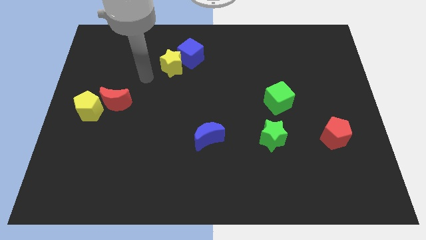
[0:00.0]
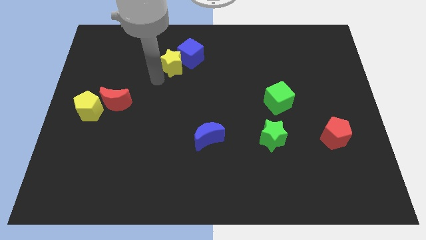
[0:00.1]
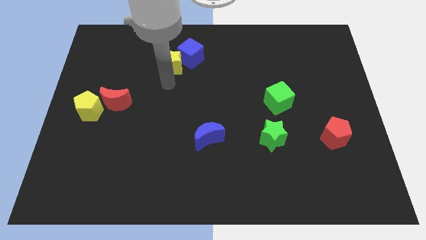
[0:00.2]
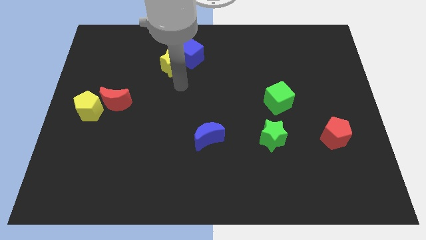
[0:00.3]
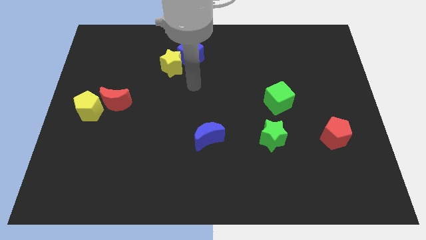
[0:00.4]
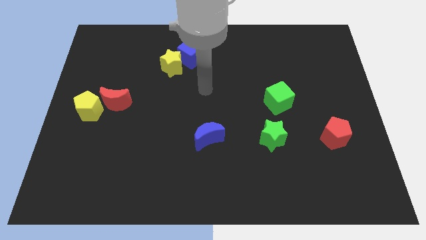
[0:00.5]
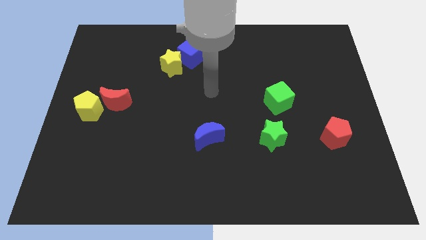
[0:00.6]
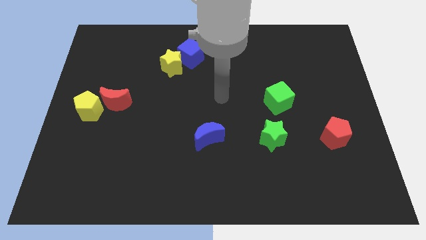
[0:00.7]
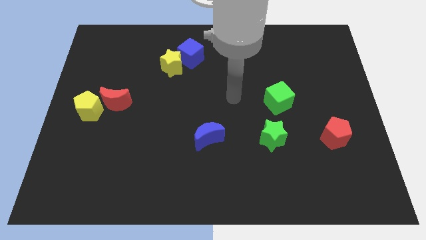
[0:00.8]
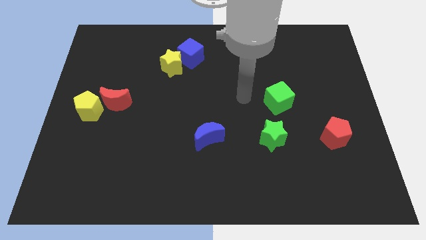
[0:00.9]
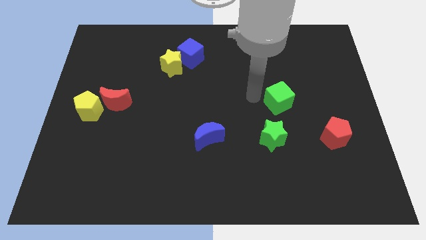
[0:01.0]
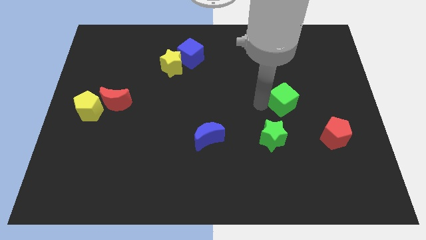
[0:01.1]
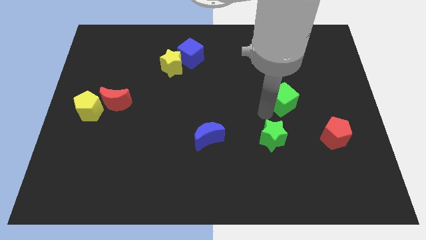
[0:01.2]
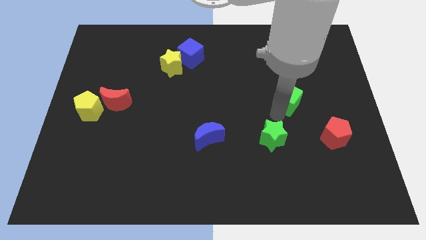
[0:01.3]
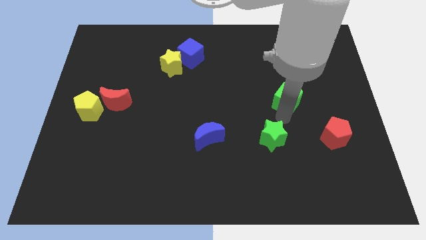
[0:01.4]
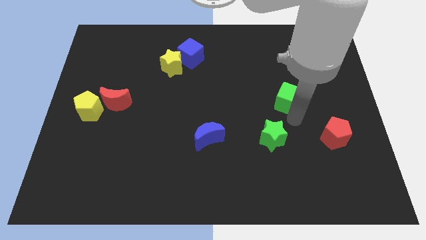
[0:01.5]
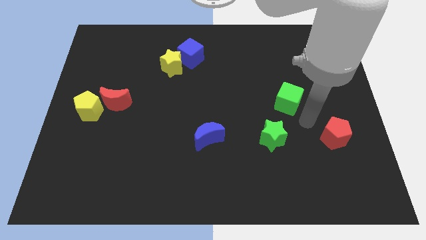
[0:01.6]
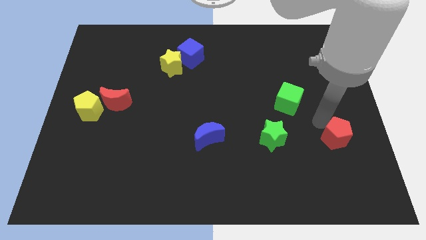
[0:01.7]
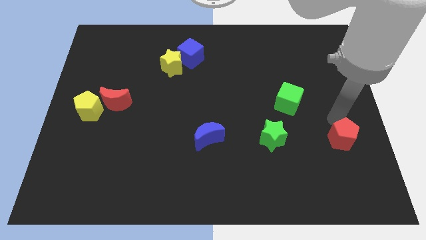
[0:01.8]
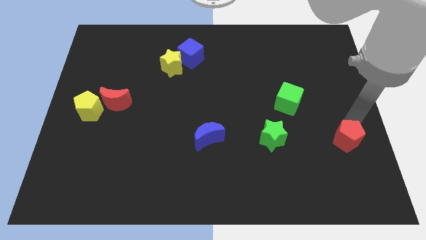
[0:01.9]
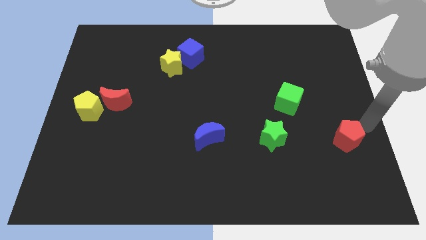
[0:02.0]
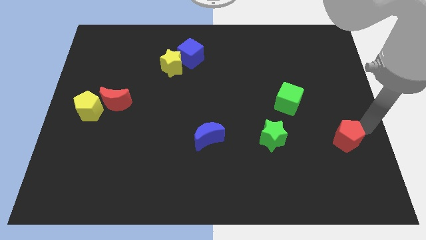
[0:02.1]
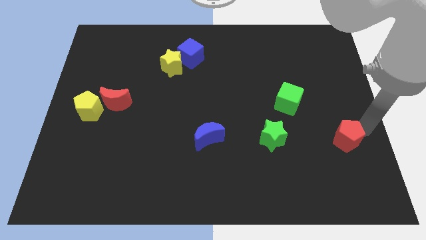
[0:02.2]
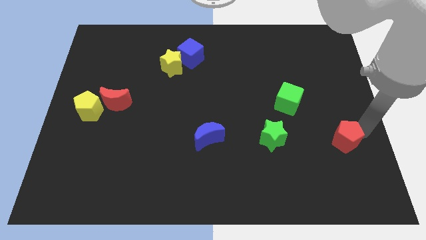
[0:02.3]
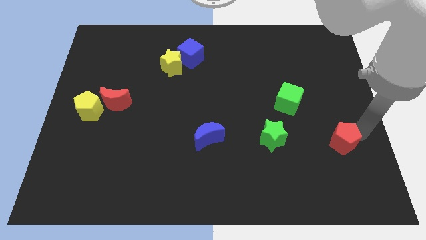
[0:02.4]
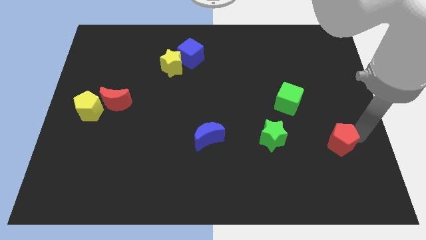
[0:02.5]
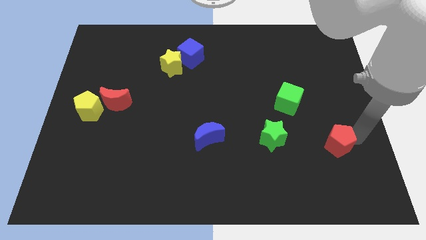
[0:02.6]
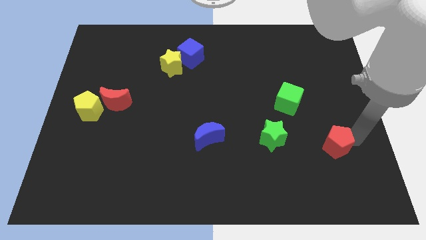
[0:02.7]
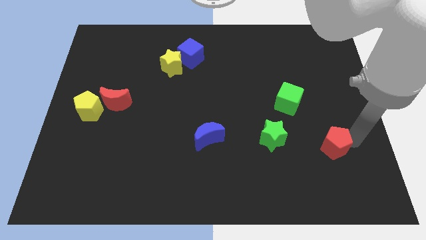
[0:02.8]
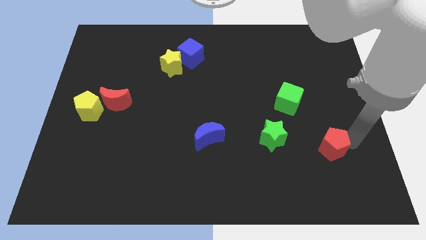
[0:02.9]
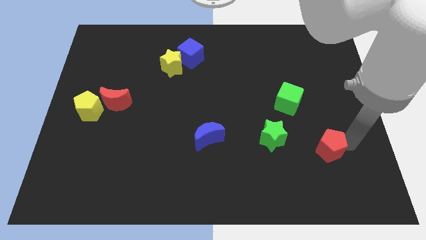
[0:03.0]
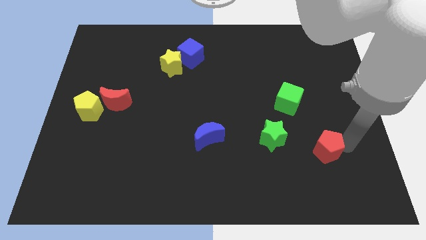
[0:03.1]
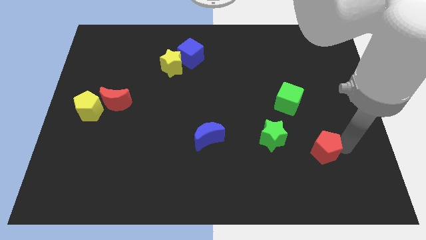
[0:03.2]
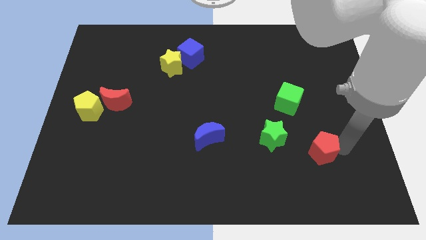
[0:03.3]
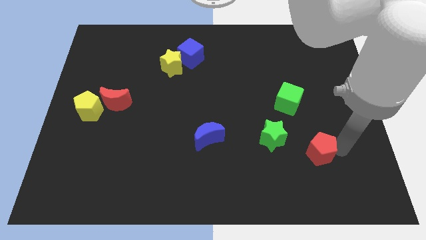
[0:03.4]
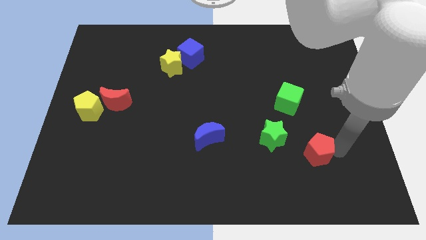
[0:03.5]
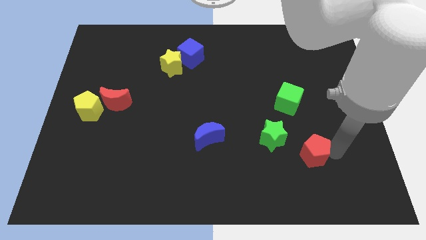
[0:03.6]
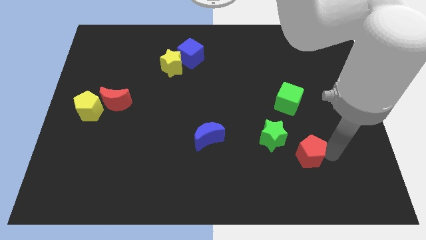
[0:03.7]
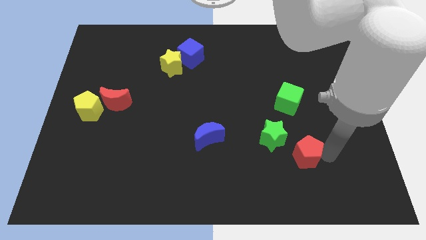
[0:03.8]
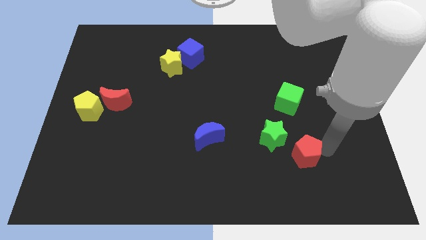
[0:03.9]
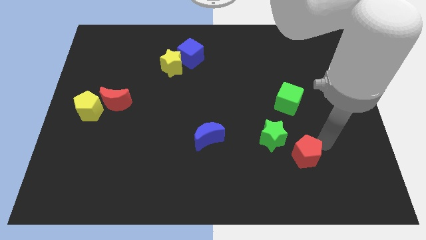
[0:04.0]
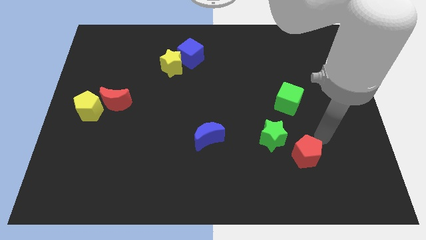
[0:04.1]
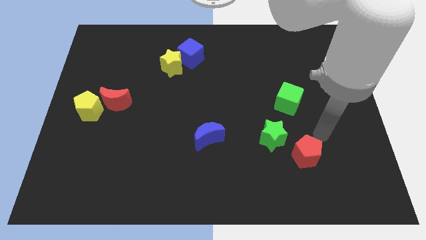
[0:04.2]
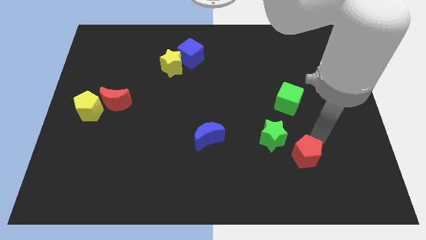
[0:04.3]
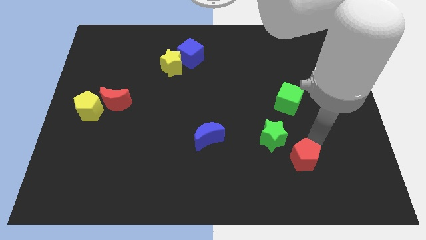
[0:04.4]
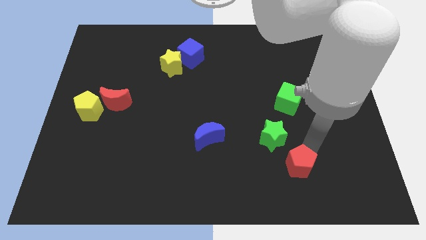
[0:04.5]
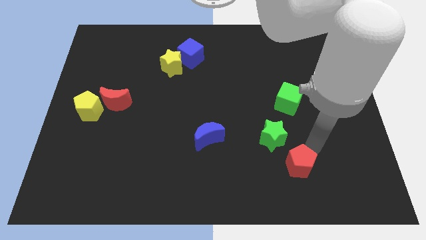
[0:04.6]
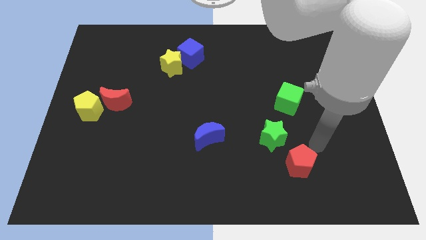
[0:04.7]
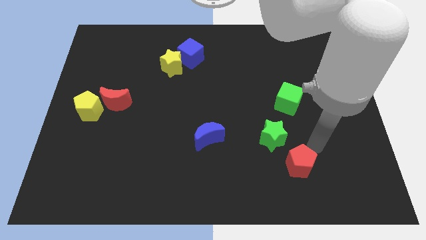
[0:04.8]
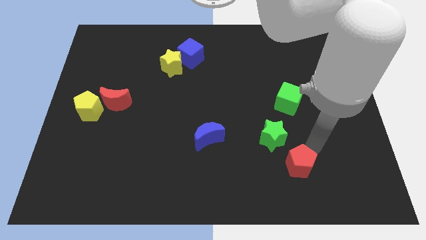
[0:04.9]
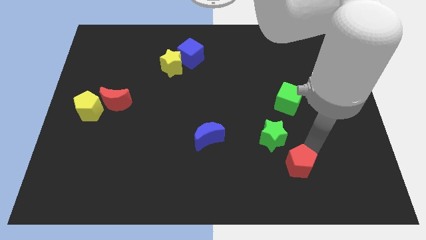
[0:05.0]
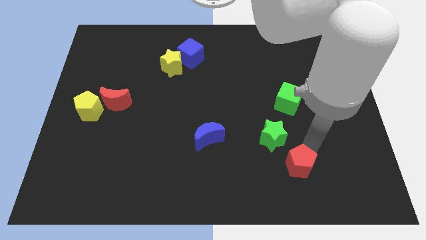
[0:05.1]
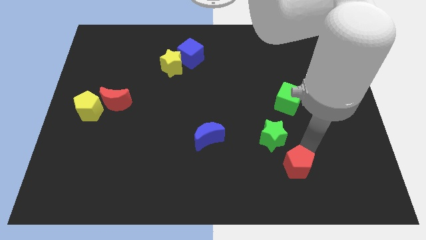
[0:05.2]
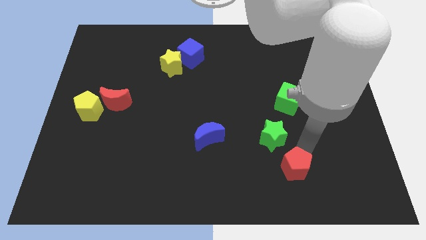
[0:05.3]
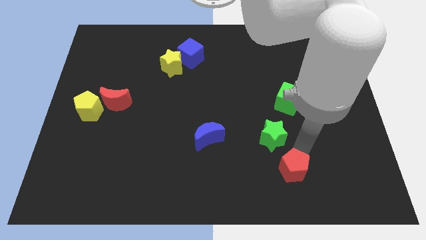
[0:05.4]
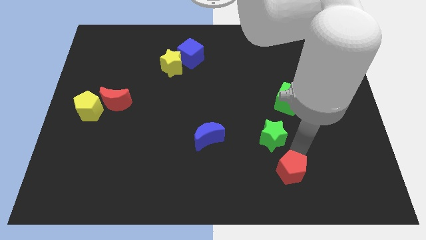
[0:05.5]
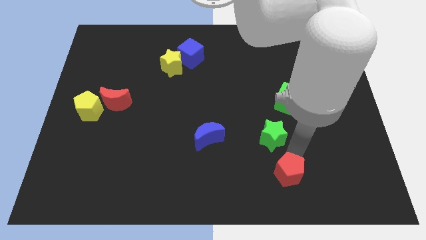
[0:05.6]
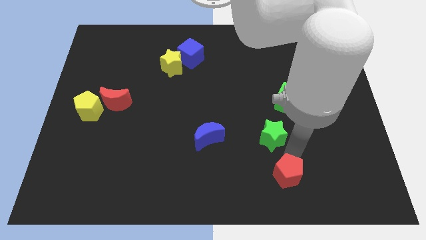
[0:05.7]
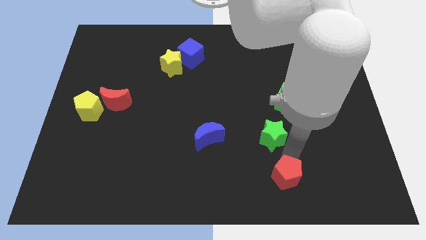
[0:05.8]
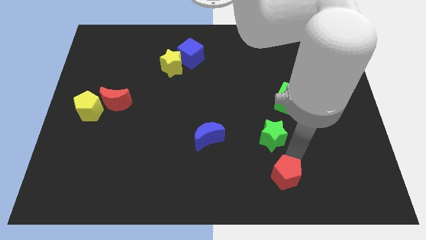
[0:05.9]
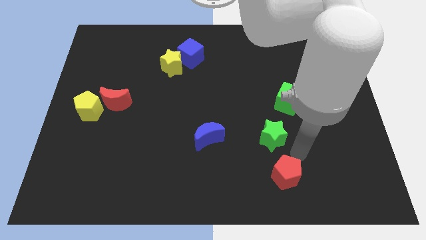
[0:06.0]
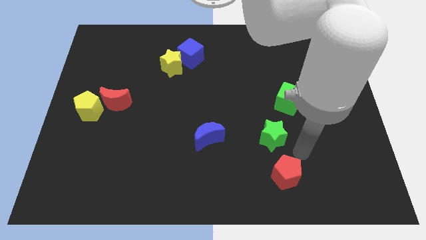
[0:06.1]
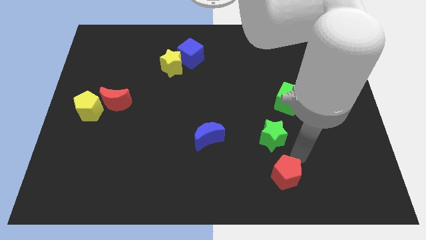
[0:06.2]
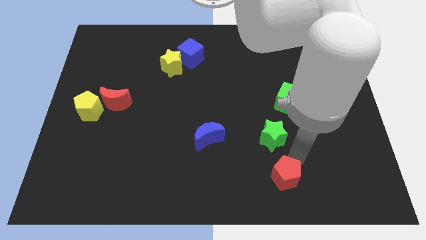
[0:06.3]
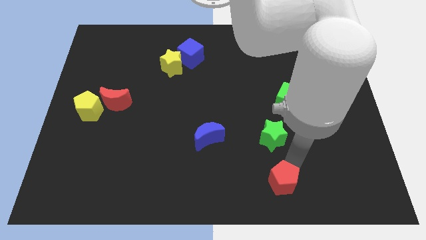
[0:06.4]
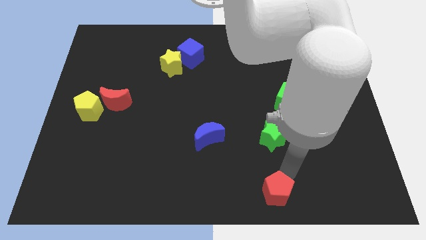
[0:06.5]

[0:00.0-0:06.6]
slide the red pentagon to the bottom
